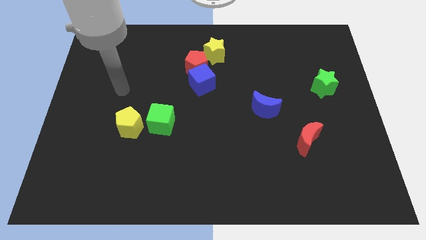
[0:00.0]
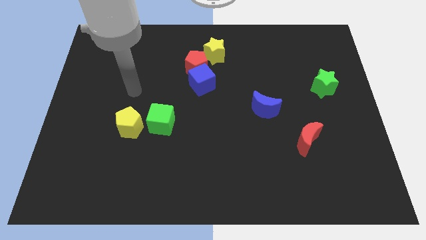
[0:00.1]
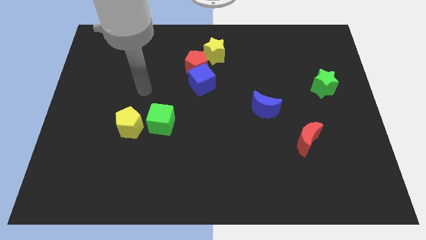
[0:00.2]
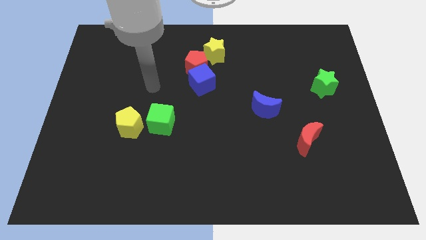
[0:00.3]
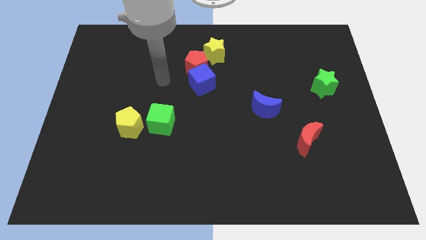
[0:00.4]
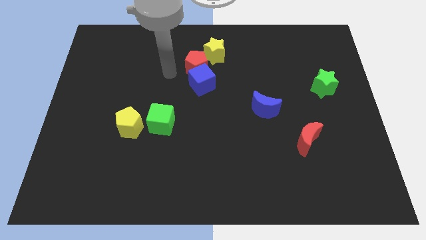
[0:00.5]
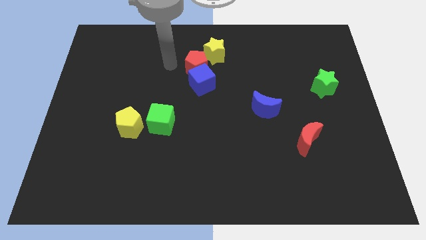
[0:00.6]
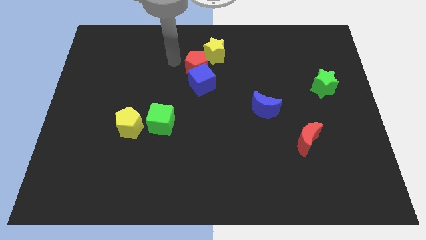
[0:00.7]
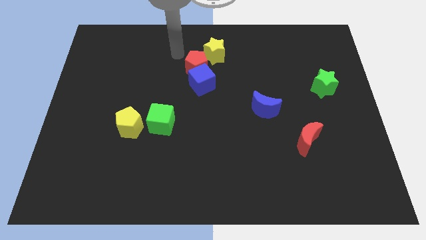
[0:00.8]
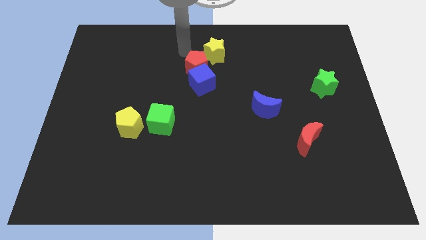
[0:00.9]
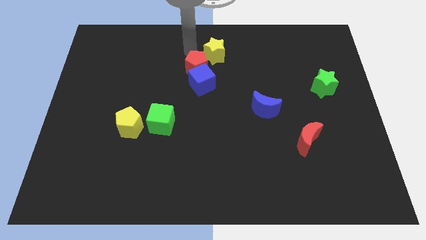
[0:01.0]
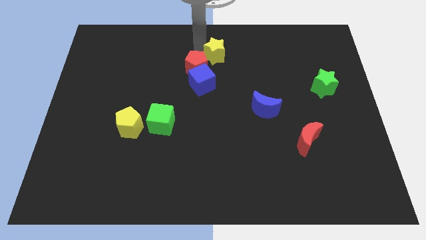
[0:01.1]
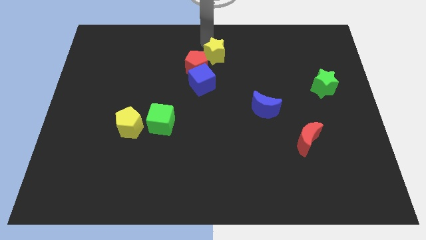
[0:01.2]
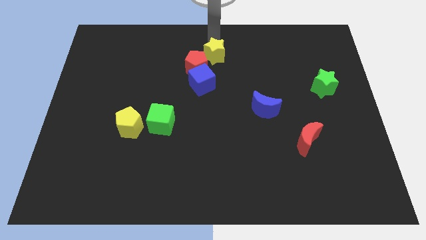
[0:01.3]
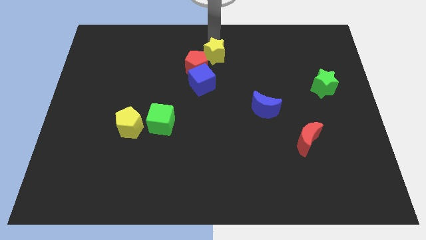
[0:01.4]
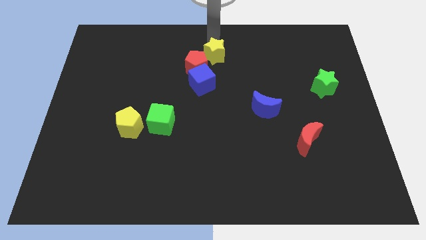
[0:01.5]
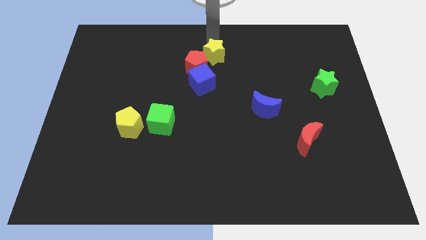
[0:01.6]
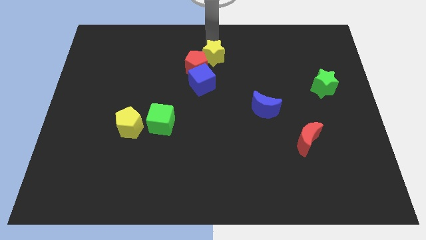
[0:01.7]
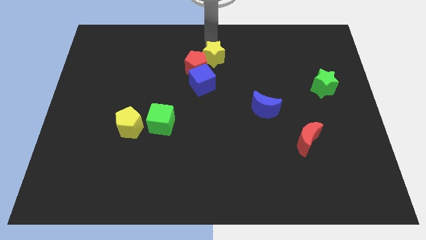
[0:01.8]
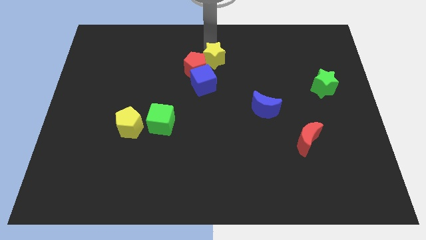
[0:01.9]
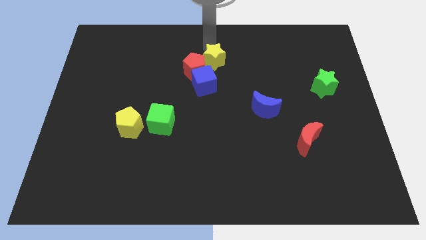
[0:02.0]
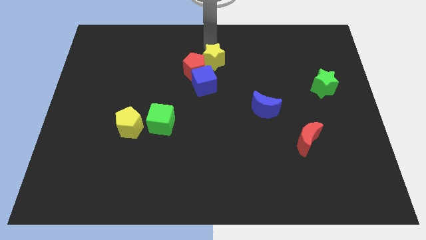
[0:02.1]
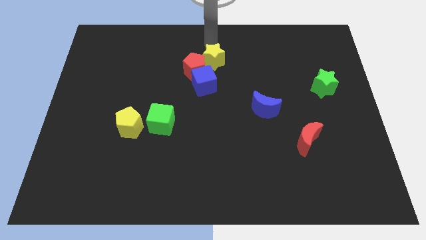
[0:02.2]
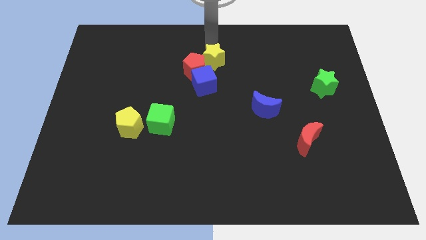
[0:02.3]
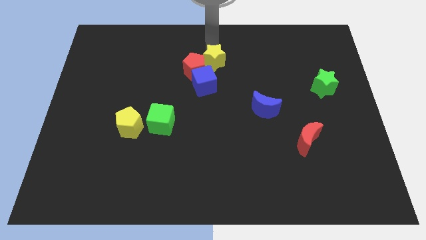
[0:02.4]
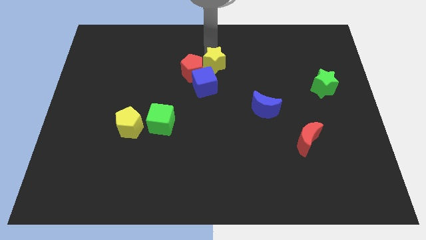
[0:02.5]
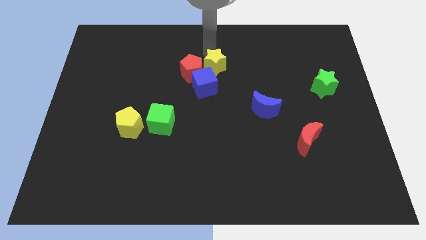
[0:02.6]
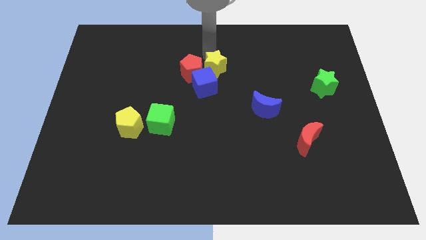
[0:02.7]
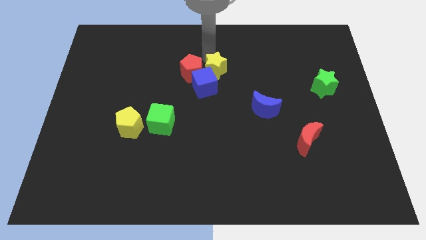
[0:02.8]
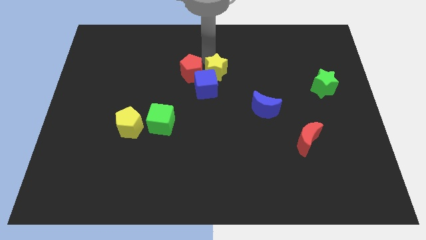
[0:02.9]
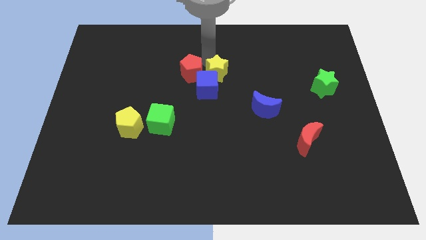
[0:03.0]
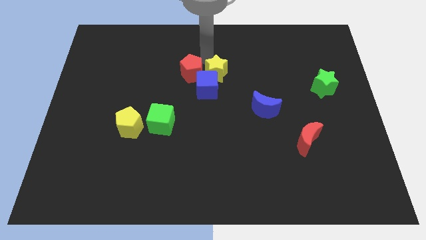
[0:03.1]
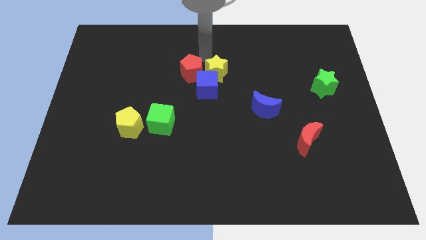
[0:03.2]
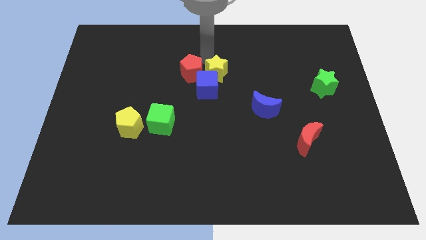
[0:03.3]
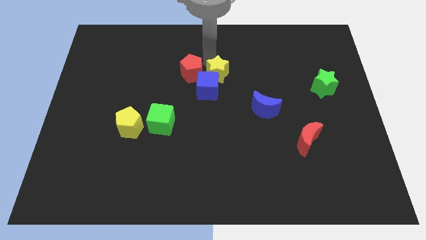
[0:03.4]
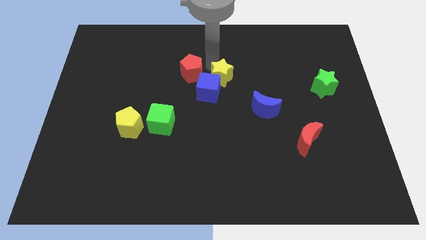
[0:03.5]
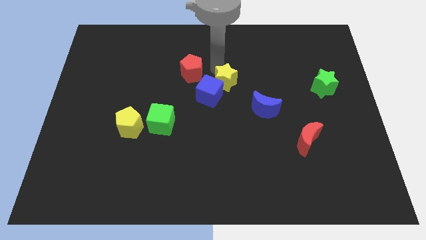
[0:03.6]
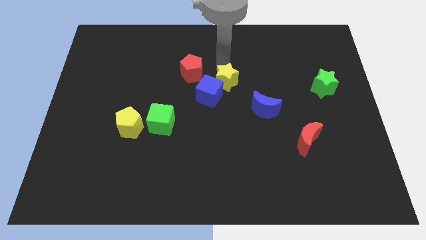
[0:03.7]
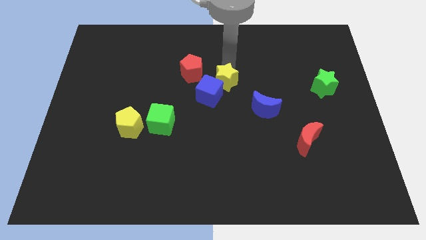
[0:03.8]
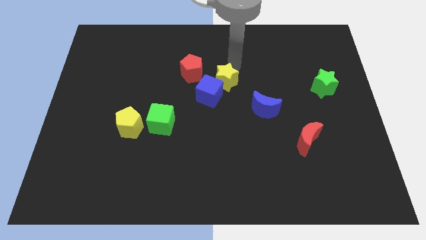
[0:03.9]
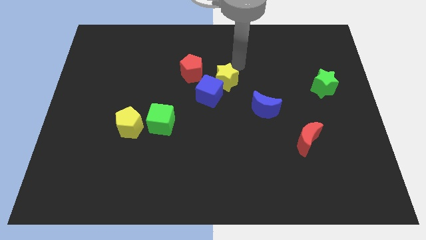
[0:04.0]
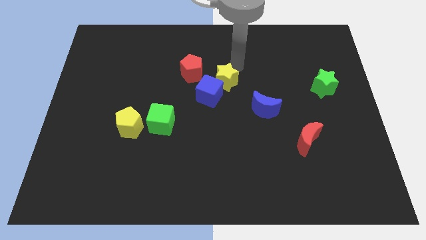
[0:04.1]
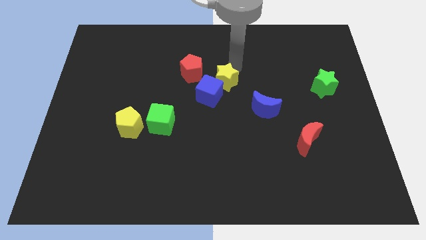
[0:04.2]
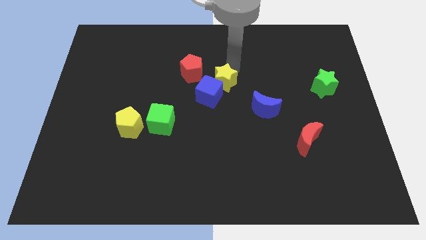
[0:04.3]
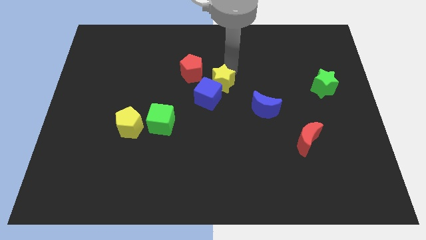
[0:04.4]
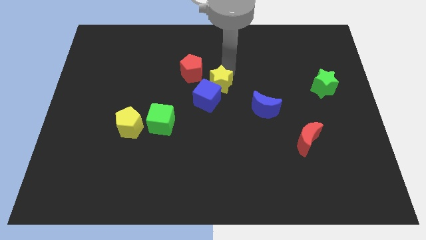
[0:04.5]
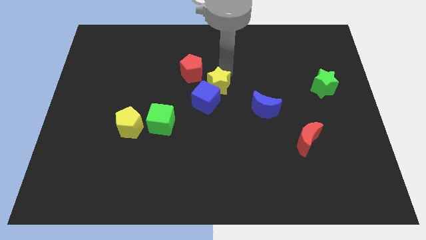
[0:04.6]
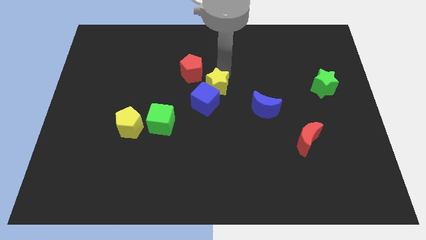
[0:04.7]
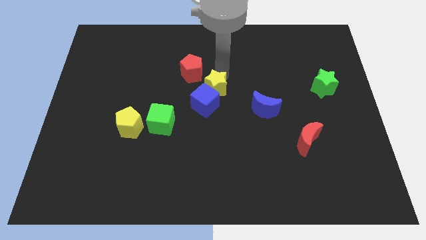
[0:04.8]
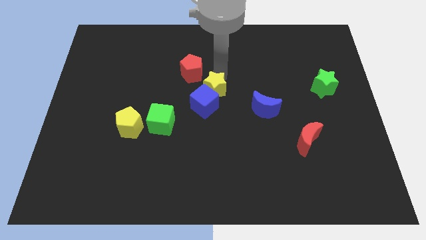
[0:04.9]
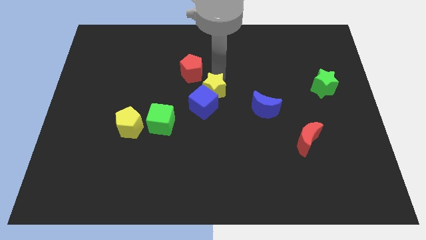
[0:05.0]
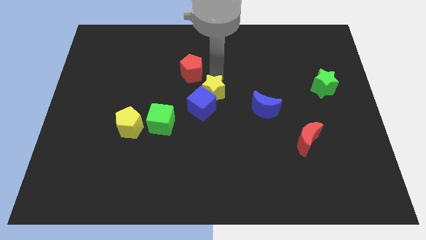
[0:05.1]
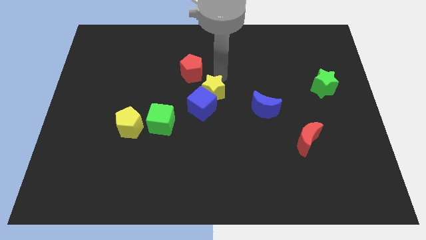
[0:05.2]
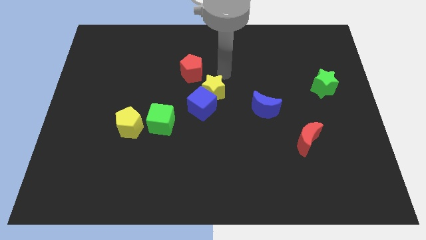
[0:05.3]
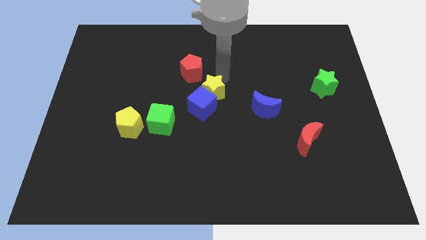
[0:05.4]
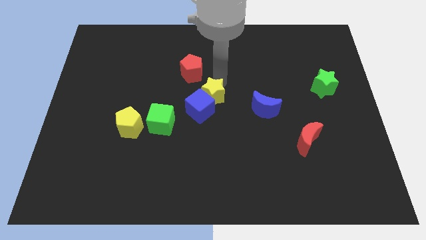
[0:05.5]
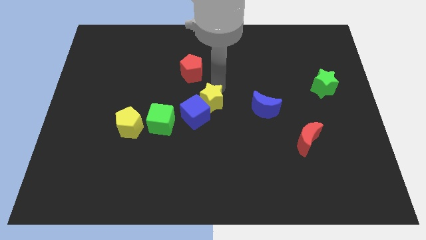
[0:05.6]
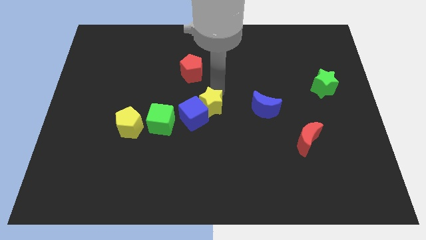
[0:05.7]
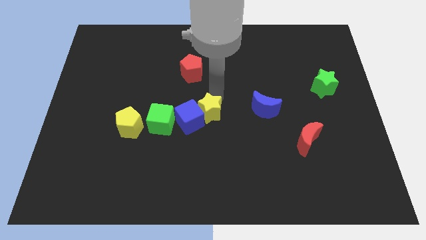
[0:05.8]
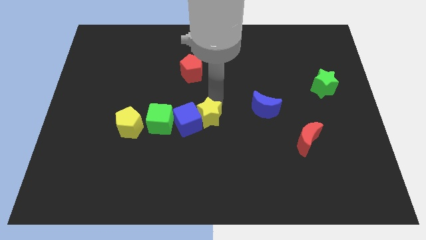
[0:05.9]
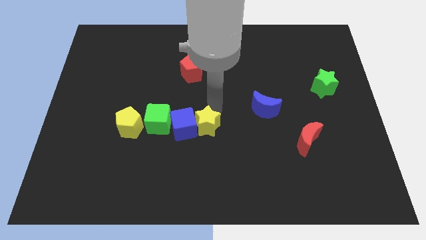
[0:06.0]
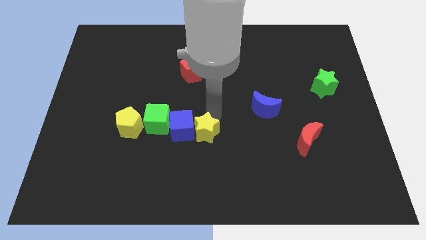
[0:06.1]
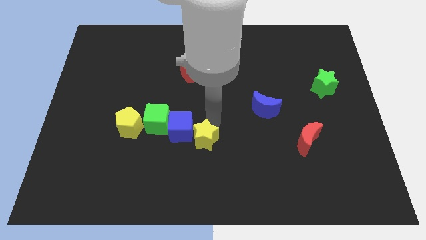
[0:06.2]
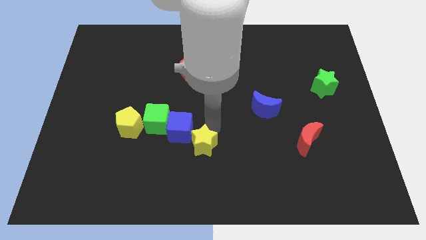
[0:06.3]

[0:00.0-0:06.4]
slide the yellow star diagonally down and to the right of the green cube
